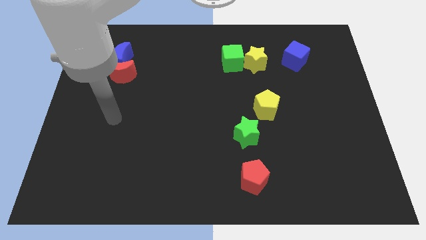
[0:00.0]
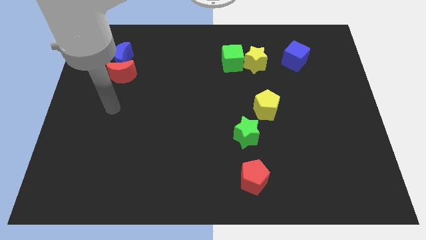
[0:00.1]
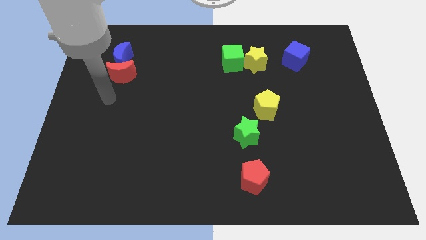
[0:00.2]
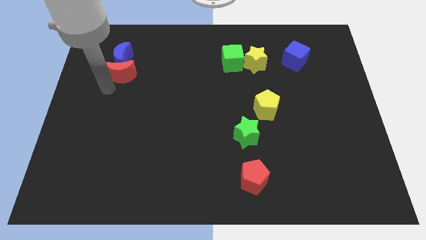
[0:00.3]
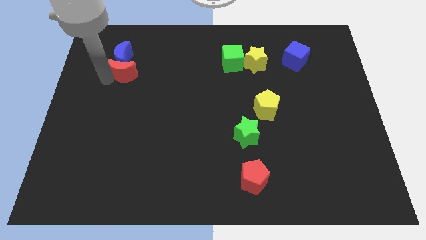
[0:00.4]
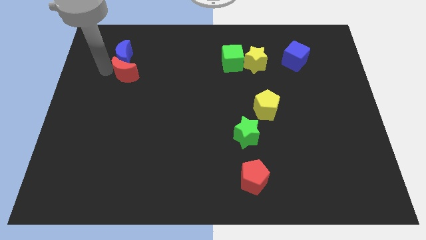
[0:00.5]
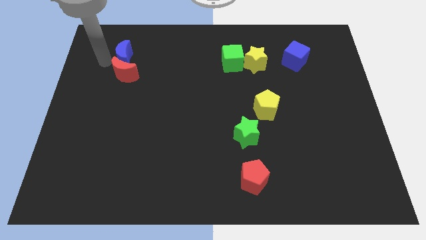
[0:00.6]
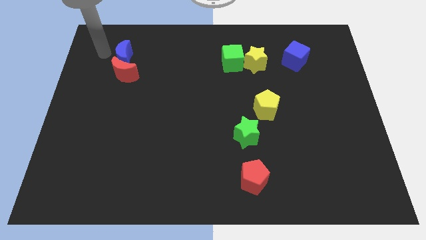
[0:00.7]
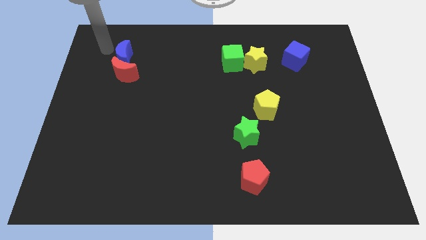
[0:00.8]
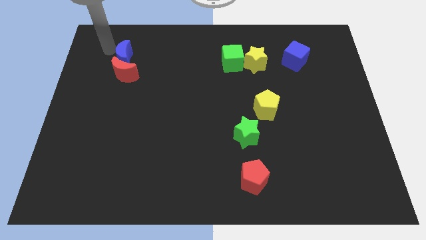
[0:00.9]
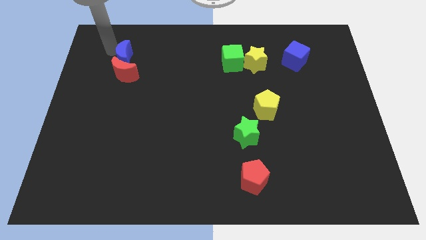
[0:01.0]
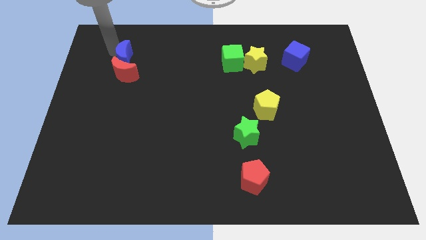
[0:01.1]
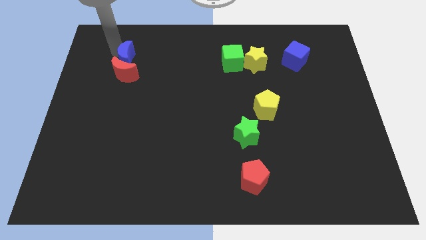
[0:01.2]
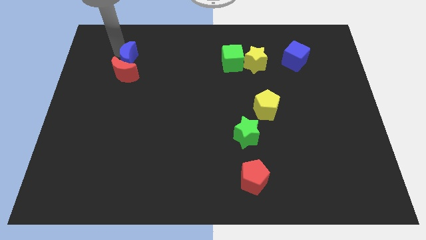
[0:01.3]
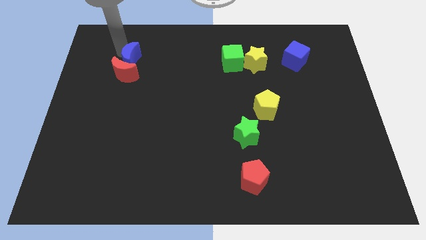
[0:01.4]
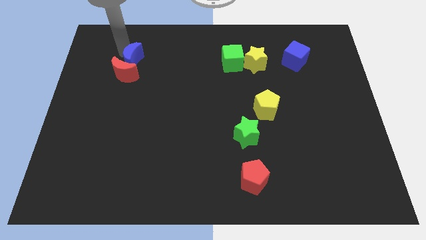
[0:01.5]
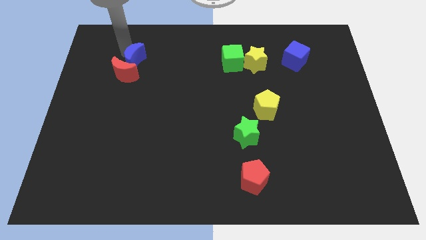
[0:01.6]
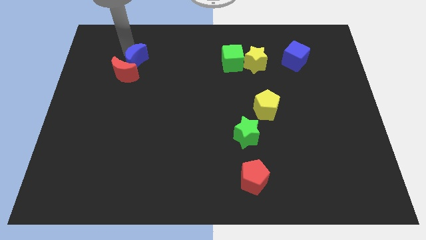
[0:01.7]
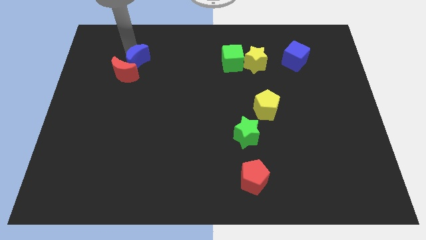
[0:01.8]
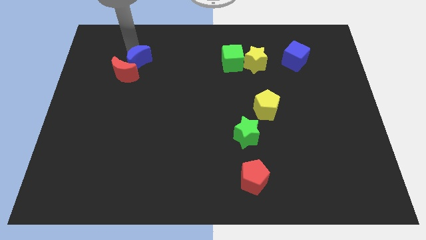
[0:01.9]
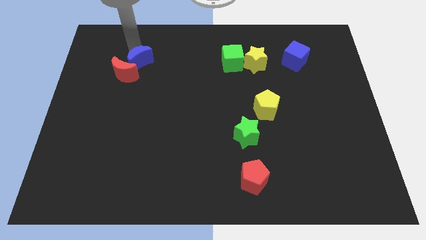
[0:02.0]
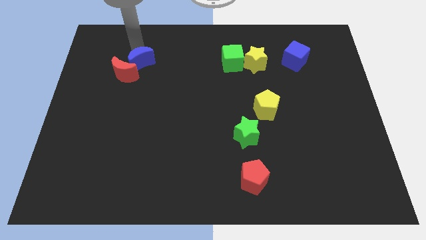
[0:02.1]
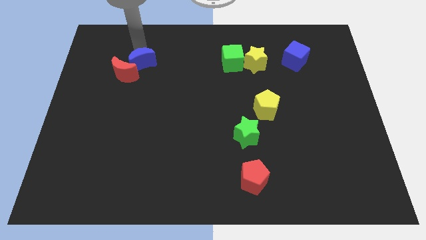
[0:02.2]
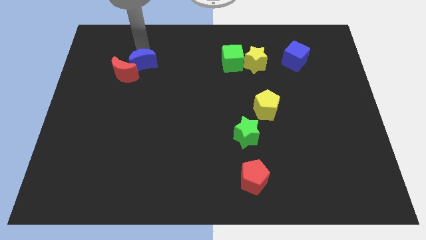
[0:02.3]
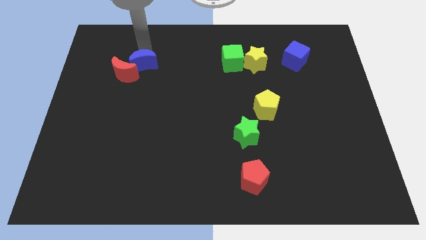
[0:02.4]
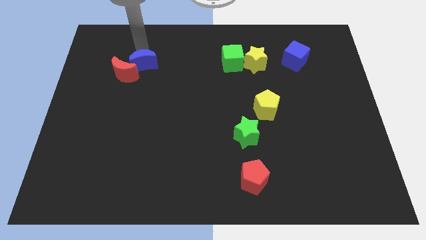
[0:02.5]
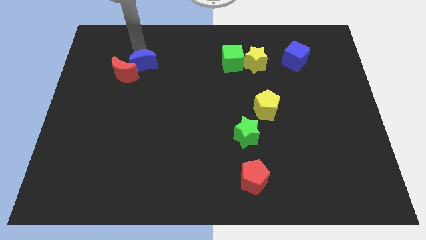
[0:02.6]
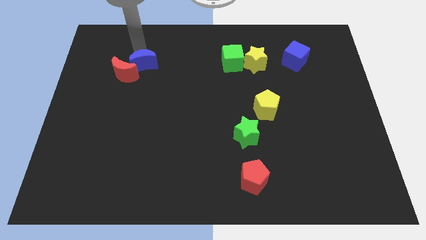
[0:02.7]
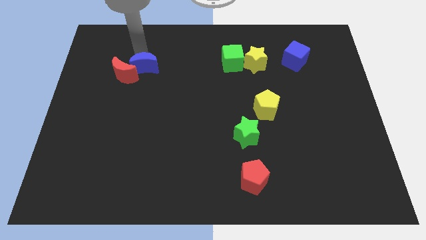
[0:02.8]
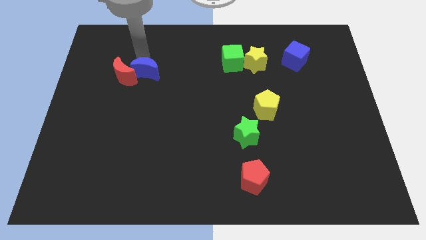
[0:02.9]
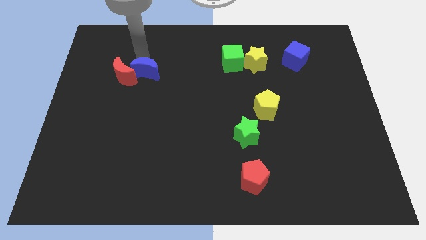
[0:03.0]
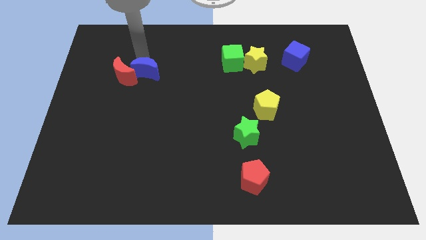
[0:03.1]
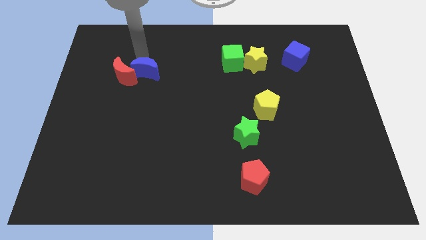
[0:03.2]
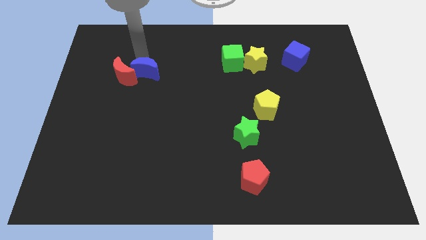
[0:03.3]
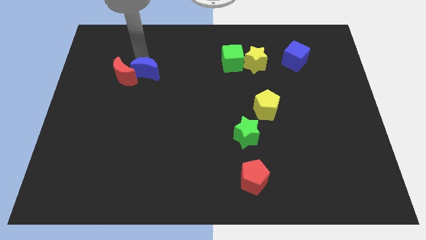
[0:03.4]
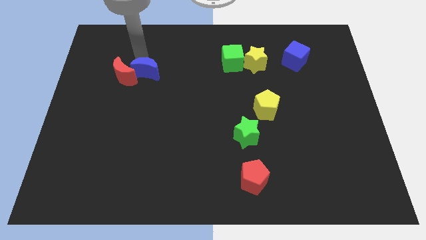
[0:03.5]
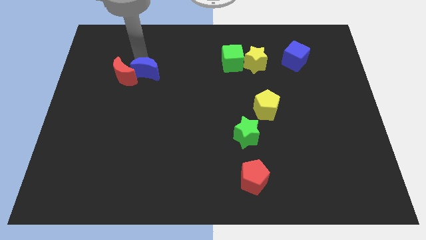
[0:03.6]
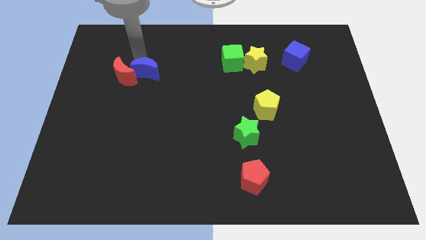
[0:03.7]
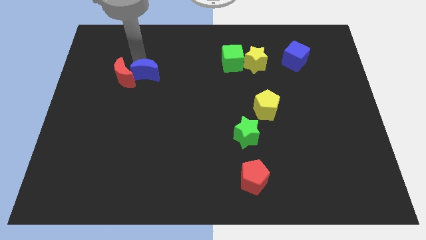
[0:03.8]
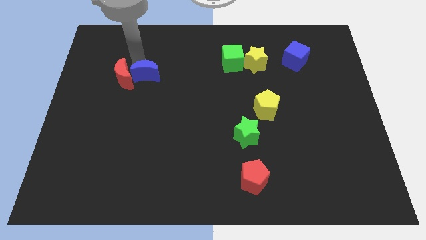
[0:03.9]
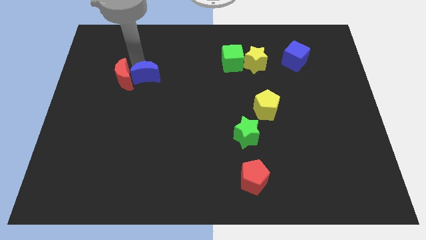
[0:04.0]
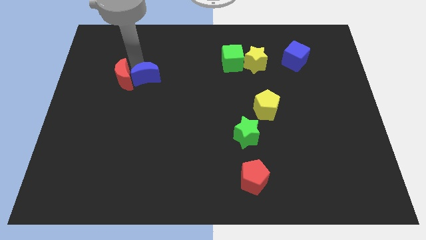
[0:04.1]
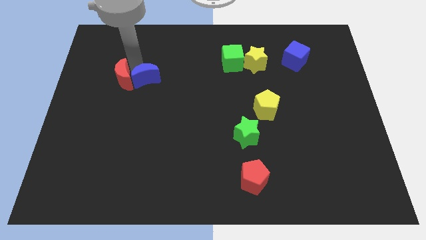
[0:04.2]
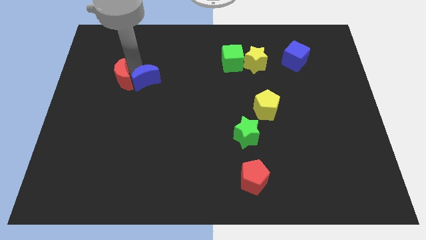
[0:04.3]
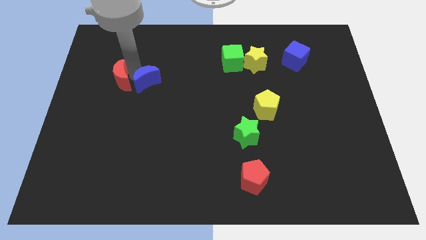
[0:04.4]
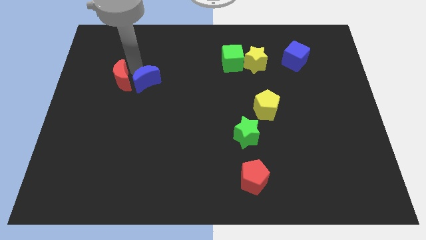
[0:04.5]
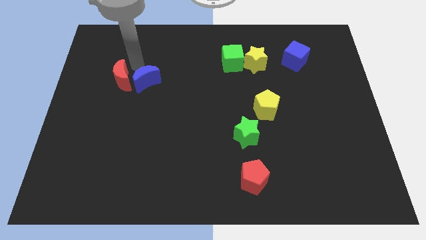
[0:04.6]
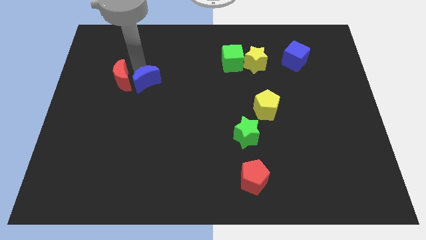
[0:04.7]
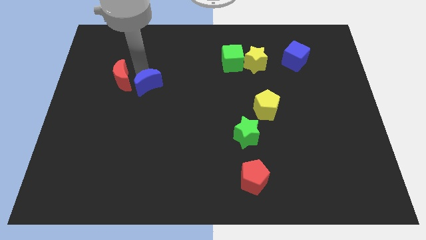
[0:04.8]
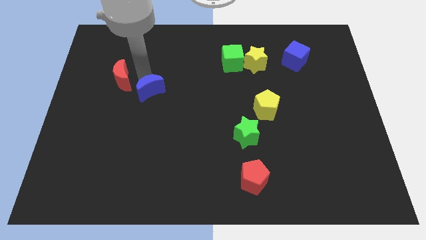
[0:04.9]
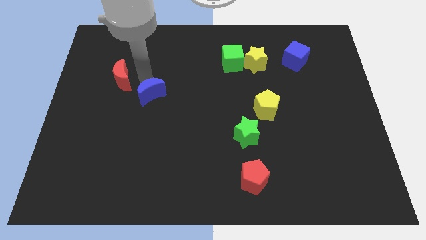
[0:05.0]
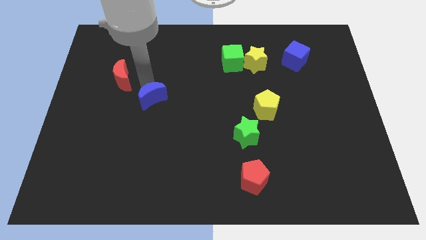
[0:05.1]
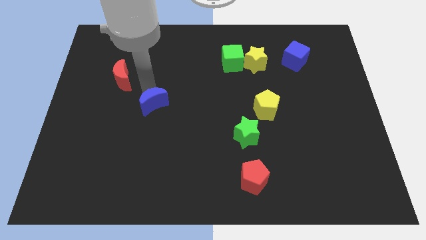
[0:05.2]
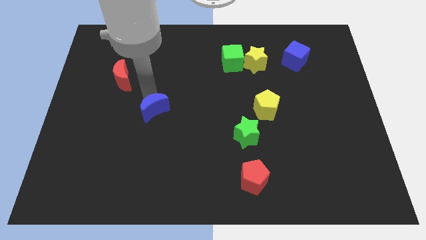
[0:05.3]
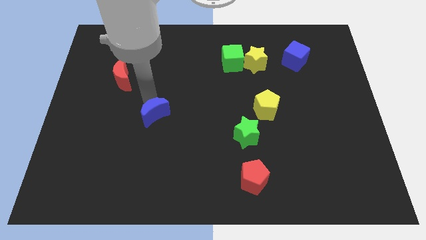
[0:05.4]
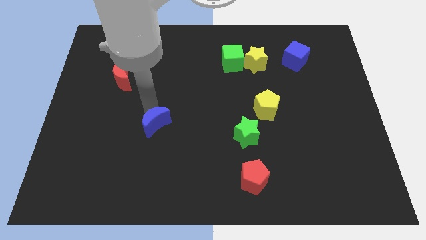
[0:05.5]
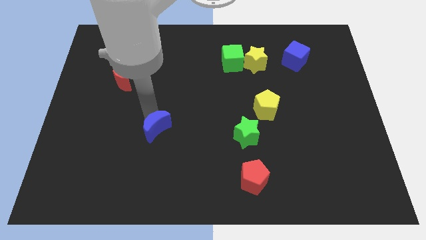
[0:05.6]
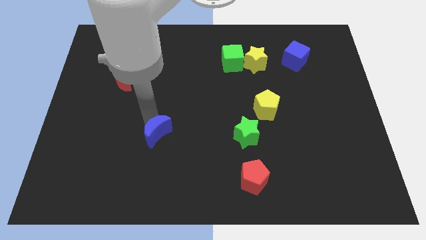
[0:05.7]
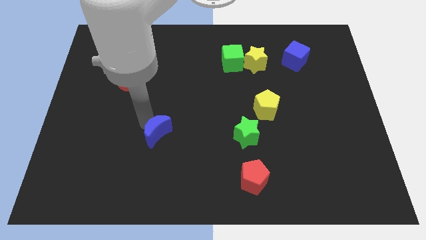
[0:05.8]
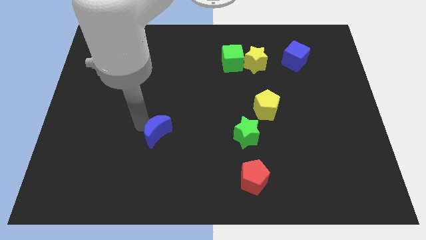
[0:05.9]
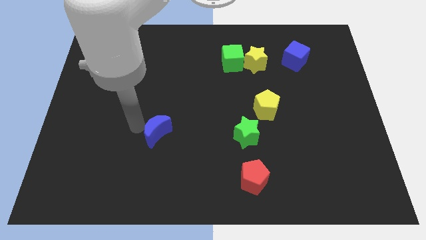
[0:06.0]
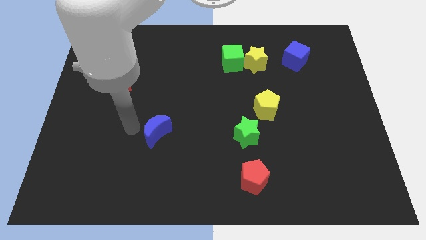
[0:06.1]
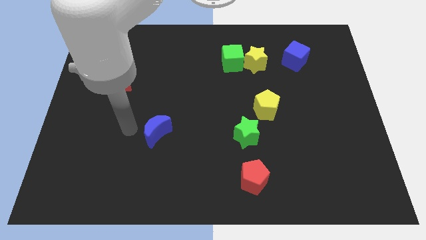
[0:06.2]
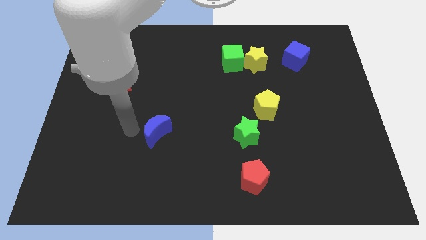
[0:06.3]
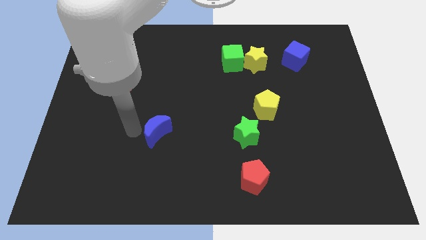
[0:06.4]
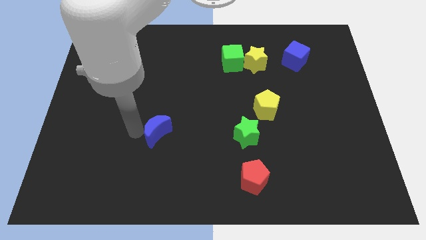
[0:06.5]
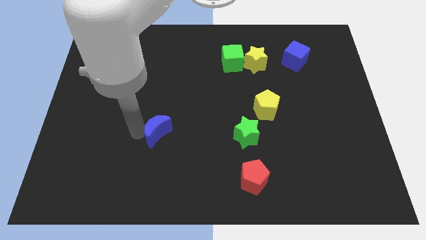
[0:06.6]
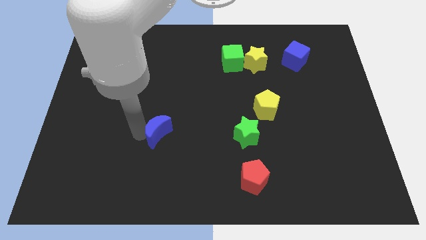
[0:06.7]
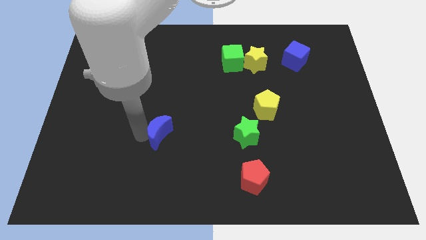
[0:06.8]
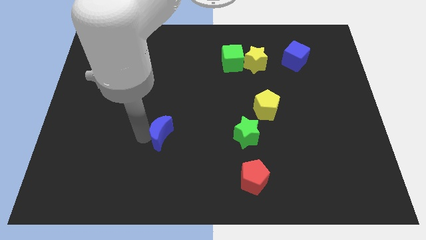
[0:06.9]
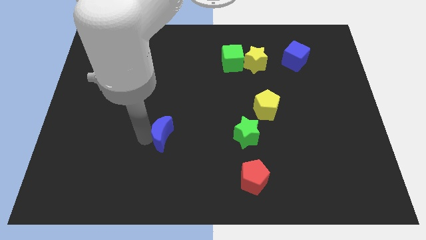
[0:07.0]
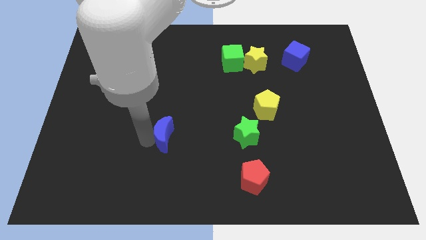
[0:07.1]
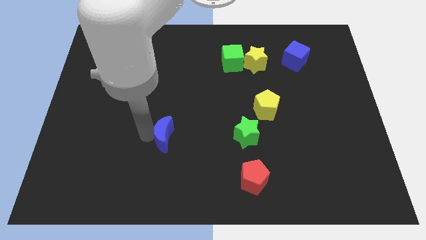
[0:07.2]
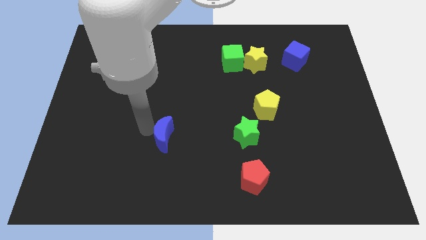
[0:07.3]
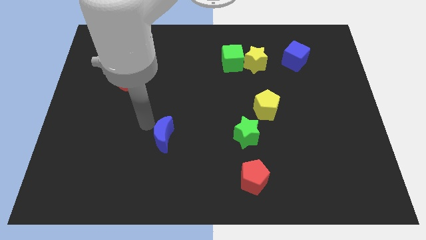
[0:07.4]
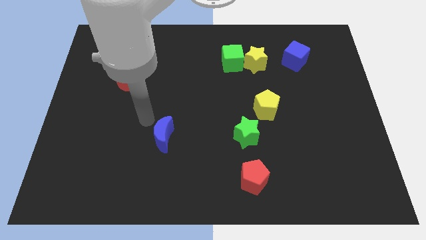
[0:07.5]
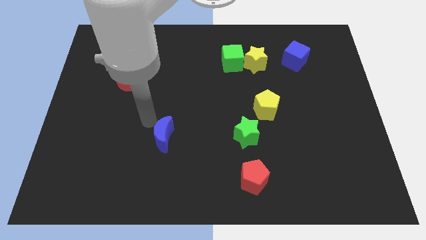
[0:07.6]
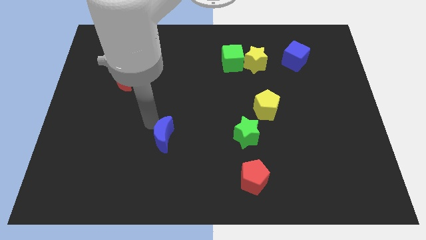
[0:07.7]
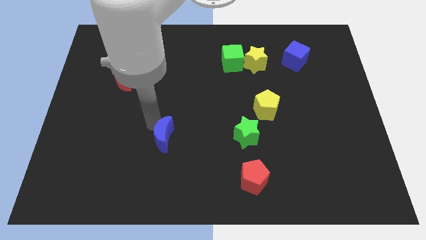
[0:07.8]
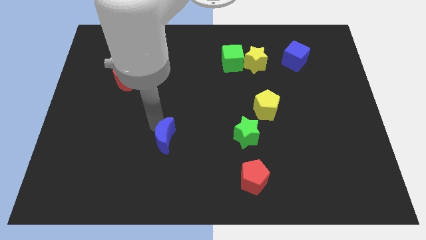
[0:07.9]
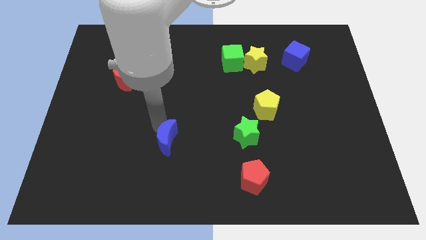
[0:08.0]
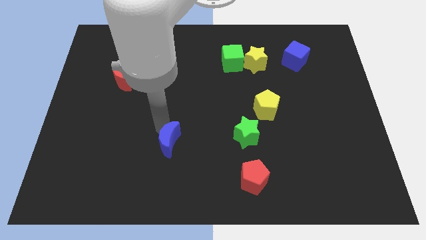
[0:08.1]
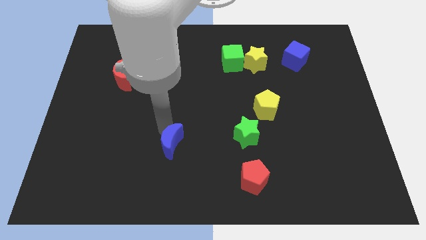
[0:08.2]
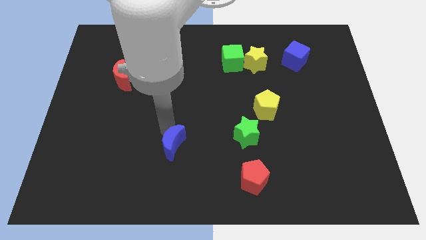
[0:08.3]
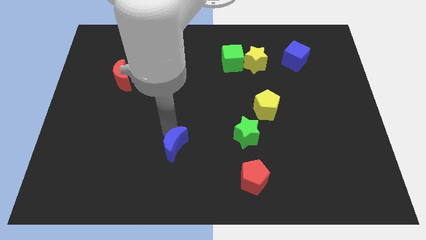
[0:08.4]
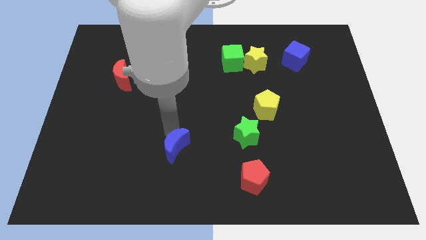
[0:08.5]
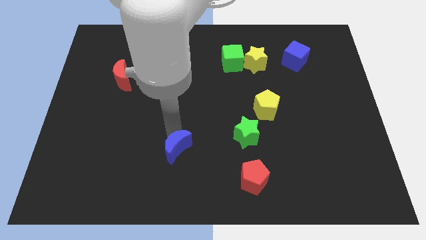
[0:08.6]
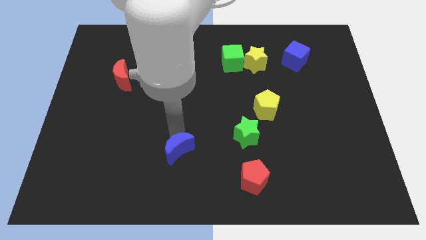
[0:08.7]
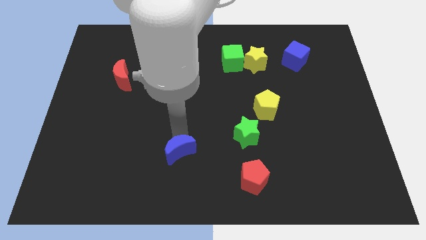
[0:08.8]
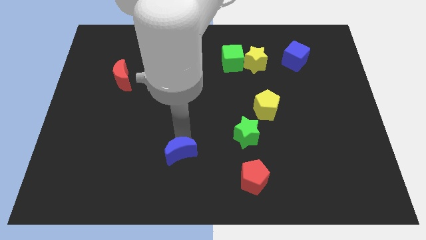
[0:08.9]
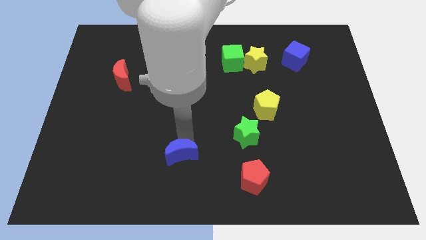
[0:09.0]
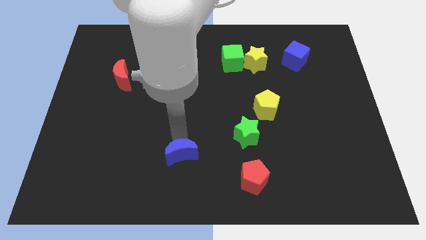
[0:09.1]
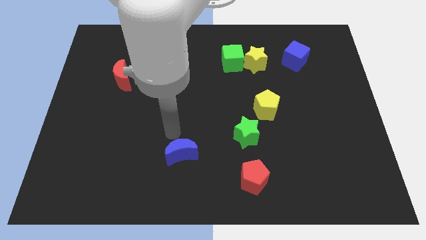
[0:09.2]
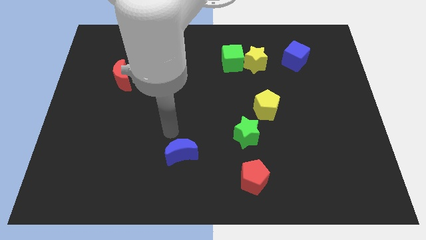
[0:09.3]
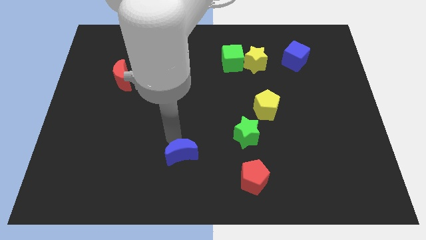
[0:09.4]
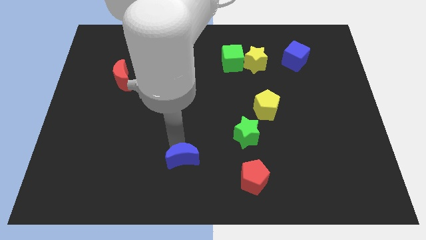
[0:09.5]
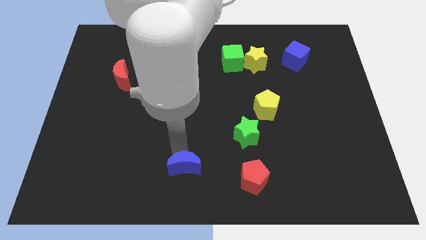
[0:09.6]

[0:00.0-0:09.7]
move the blue moon to the bottom
